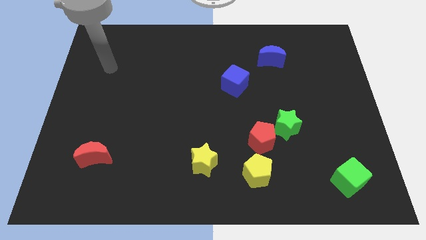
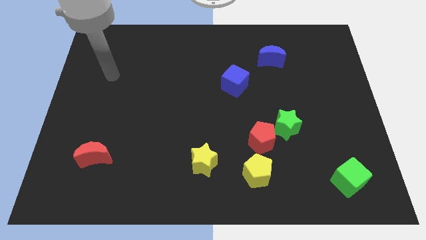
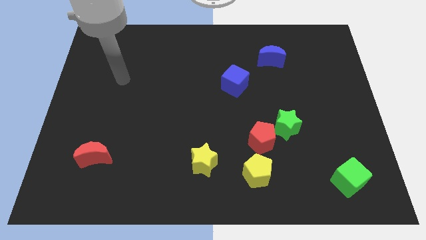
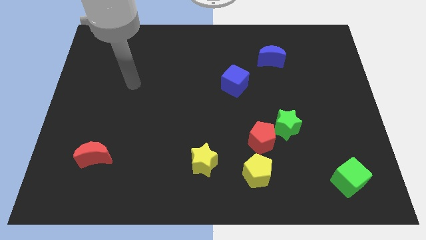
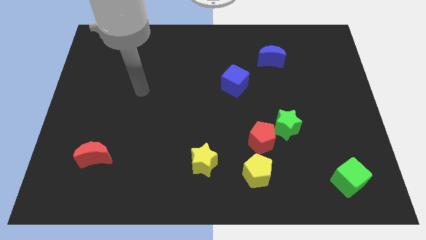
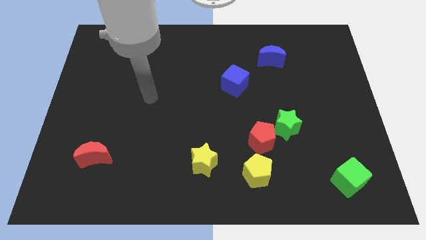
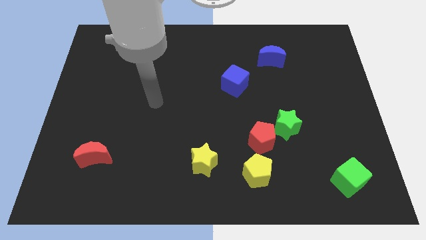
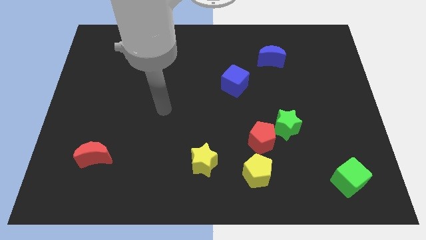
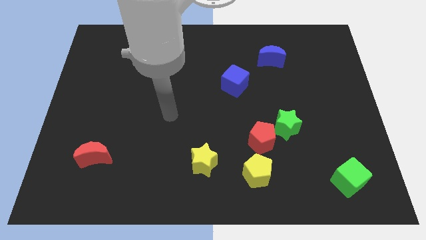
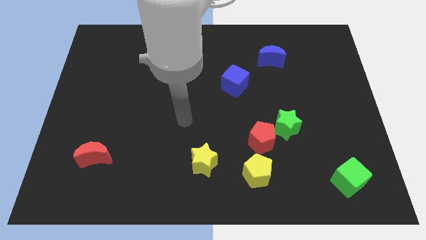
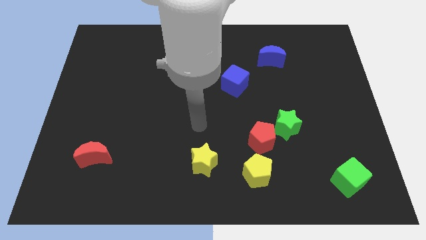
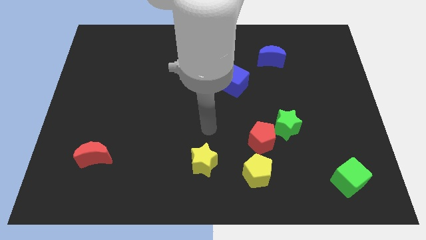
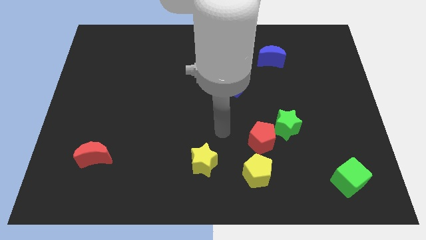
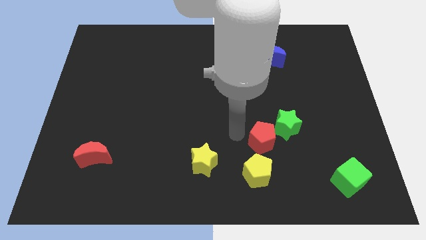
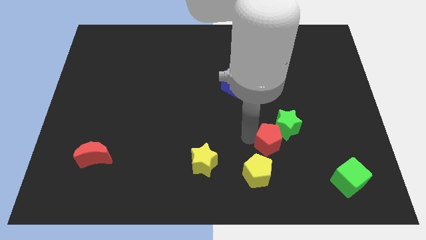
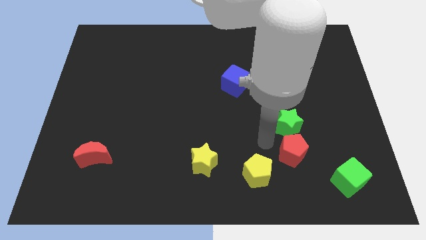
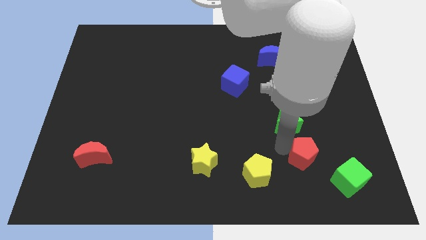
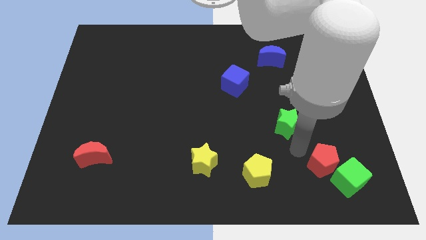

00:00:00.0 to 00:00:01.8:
pull the green star apart from the red pentagon

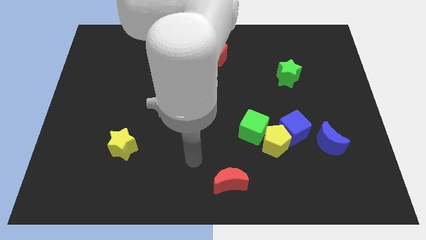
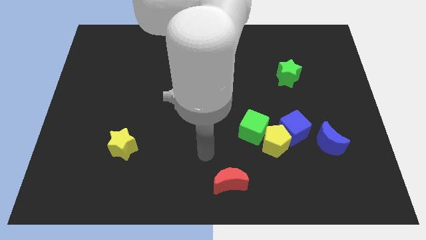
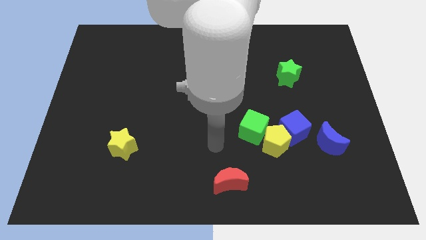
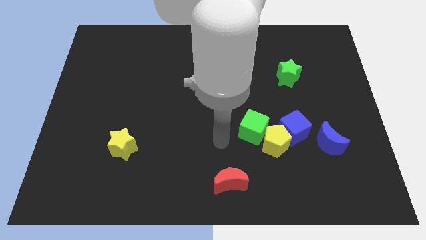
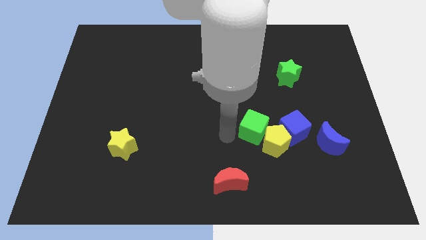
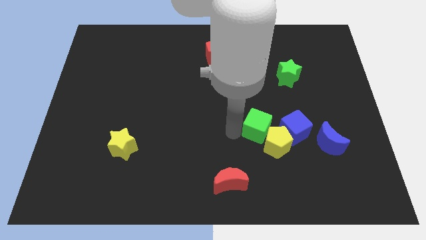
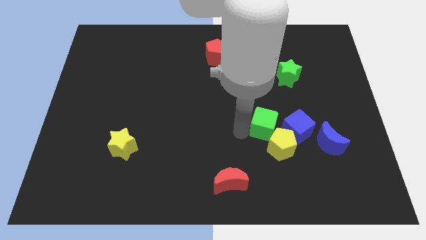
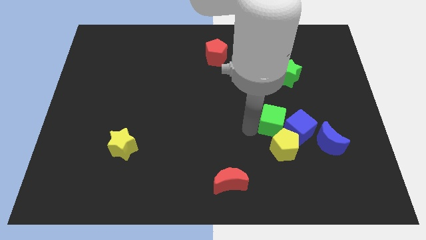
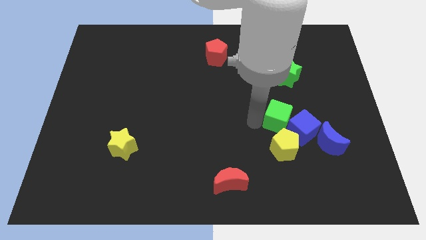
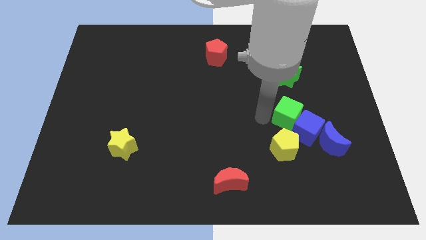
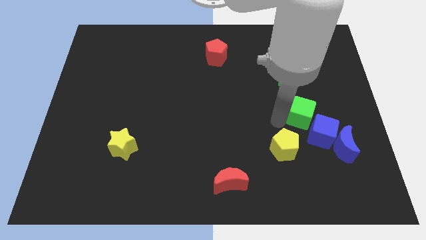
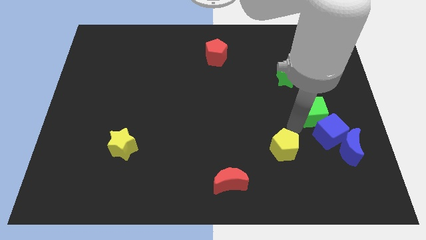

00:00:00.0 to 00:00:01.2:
move the yellow pentagon away from the blue cube and green cube

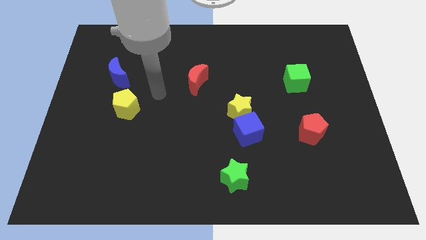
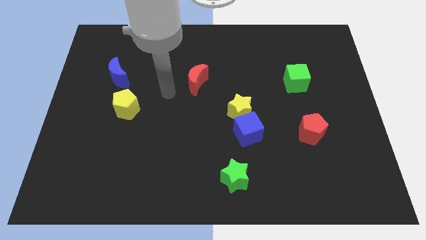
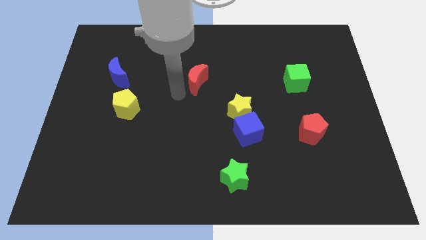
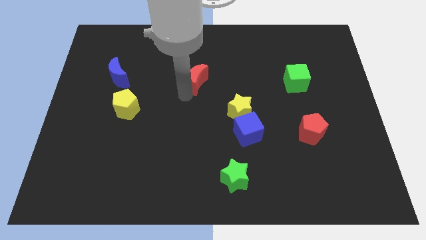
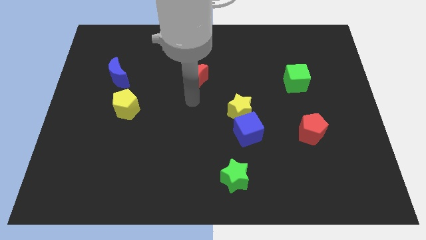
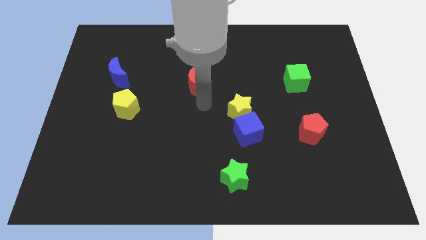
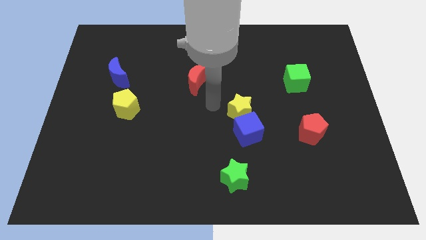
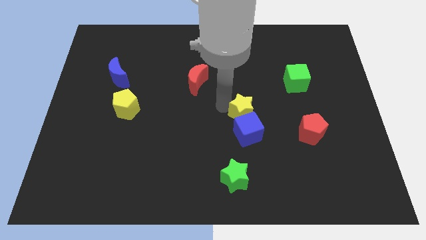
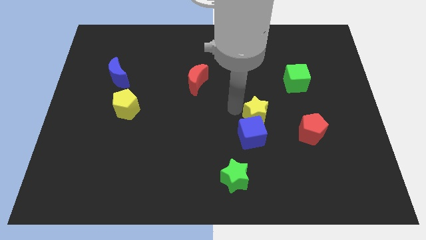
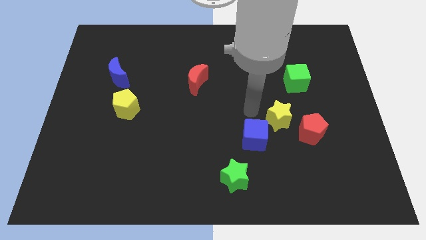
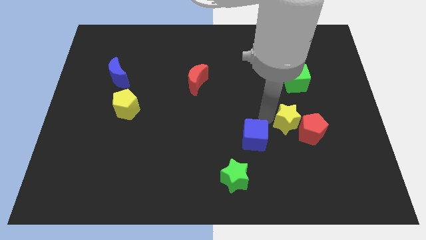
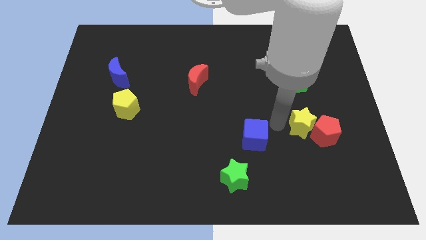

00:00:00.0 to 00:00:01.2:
pull the blue cube apart from the yellow star

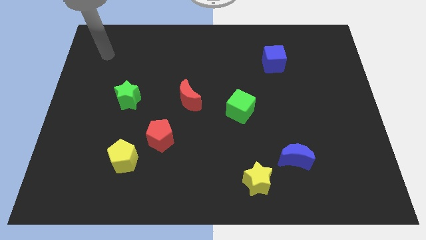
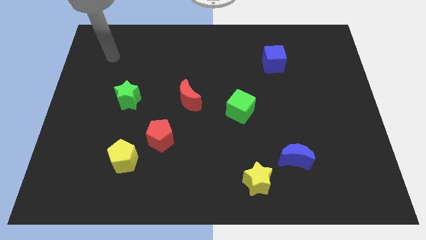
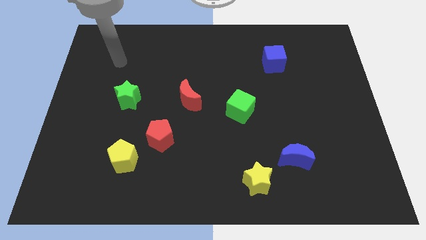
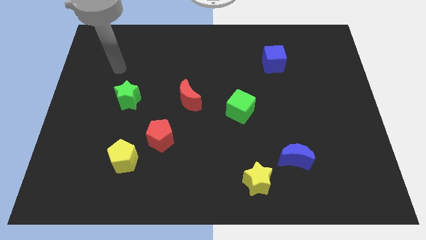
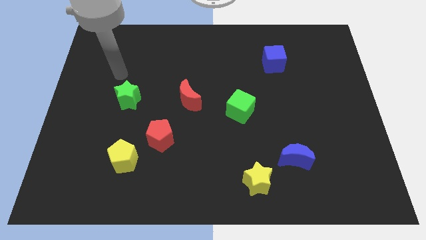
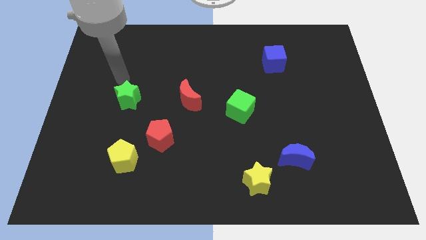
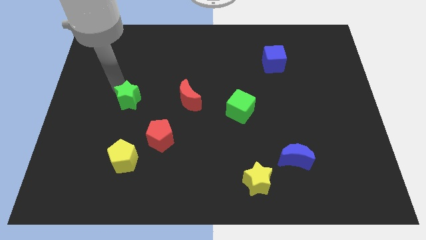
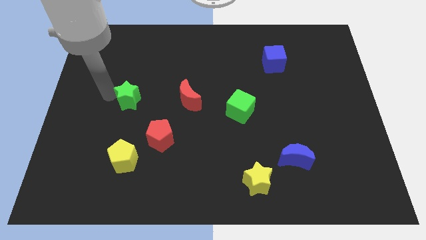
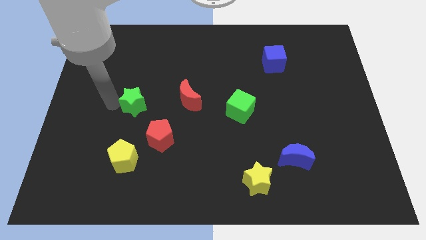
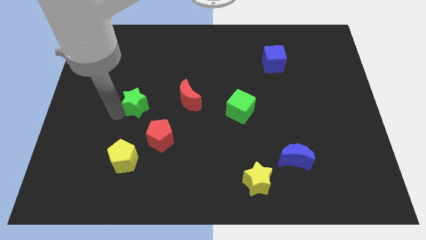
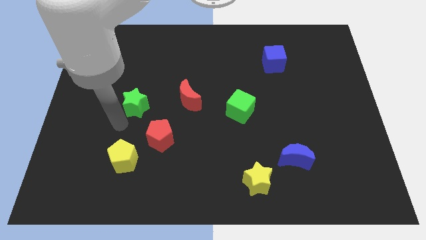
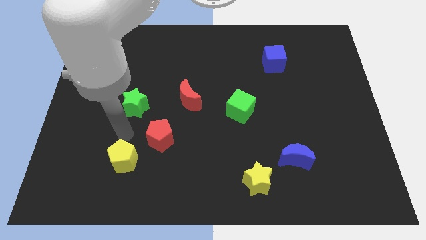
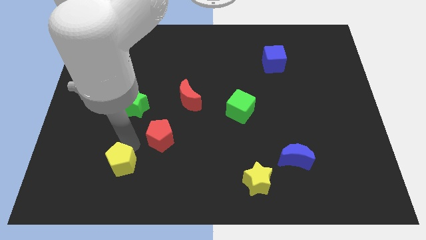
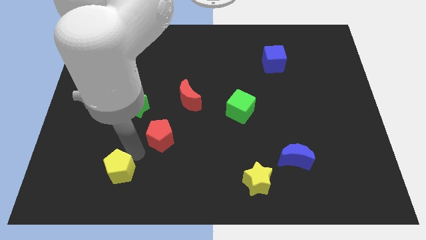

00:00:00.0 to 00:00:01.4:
pull the red pentagon apart from the yellow pentagon

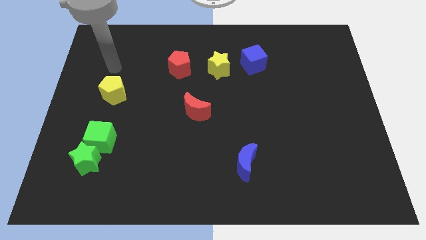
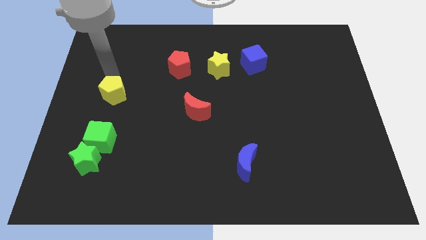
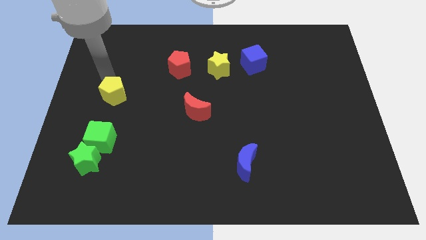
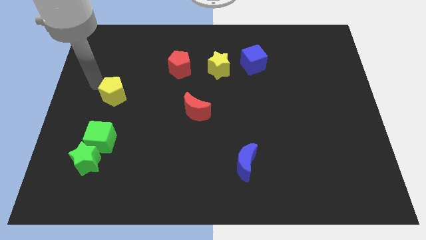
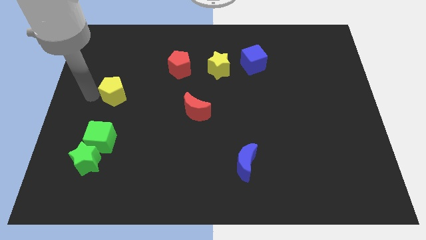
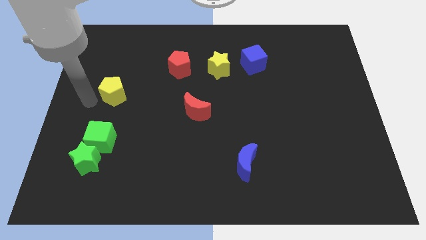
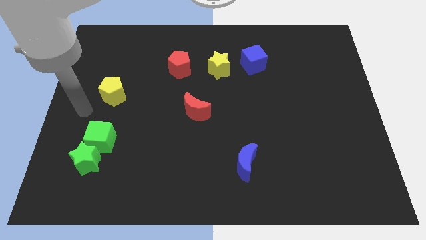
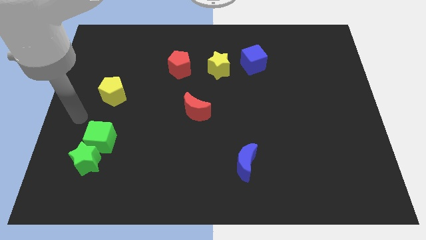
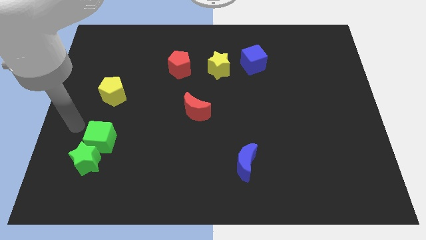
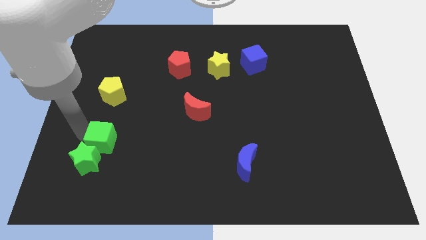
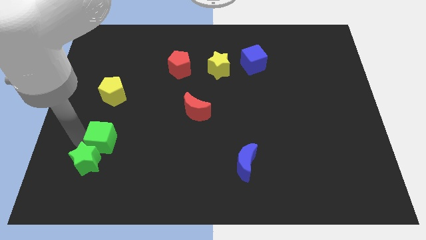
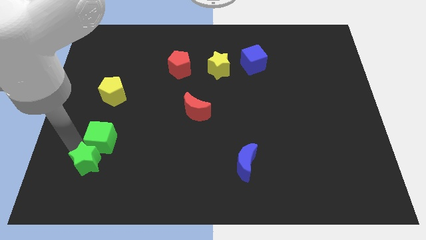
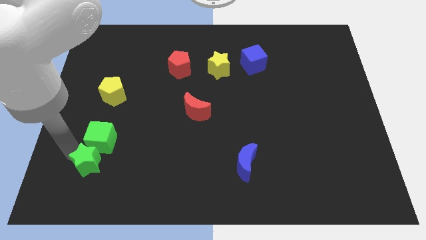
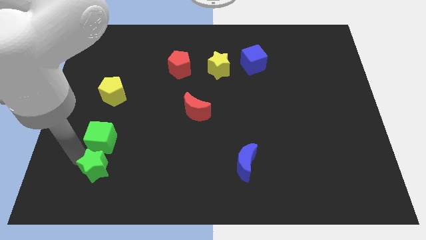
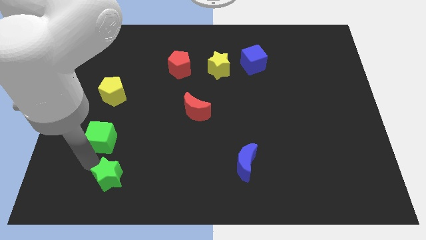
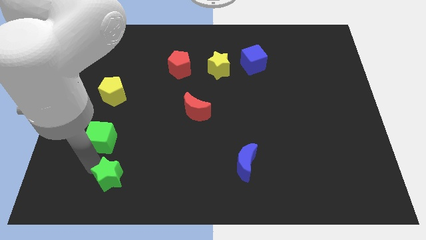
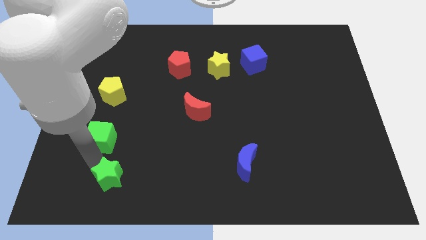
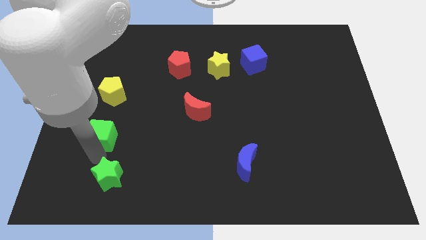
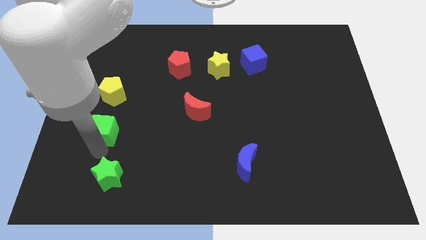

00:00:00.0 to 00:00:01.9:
move the green cube away from the green star

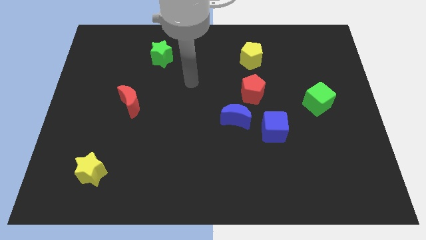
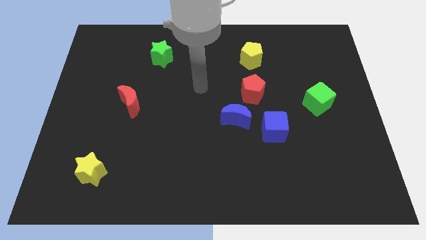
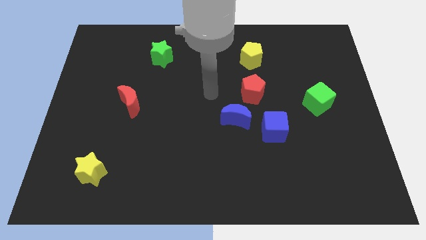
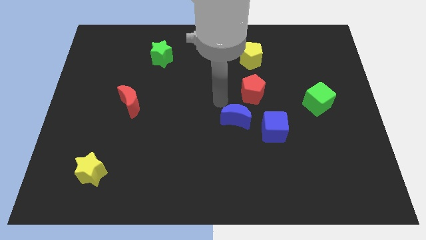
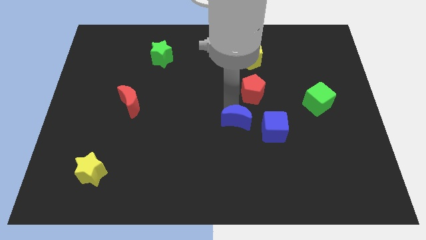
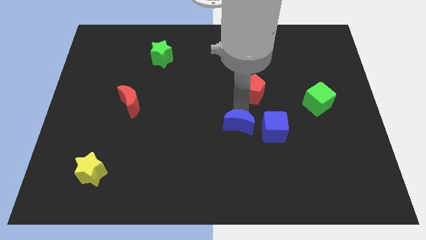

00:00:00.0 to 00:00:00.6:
pull the red pentagon apart from the blue moon

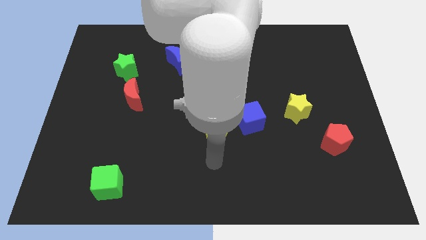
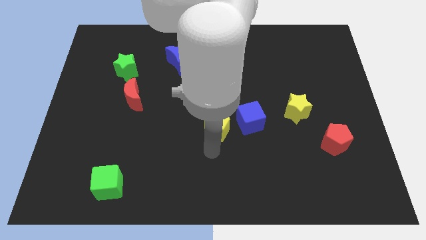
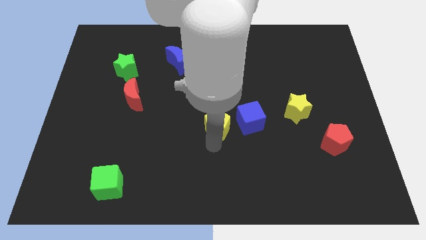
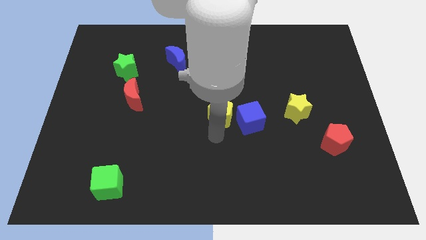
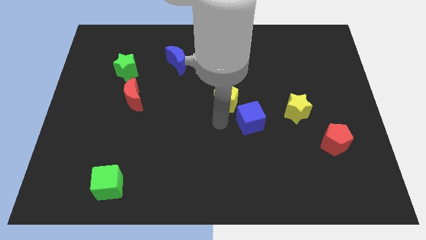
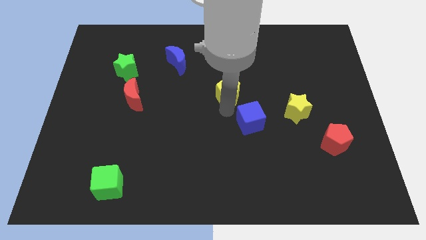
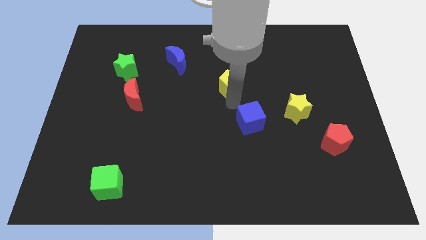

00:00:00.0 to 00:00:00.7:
separate the blue cube from the yellow pentagon

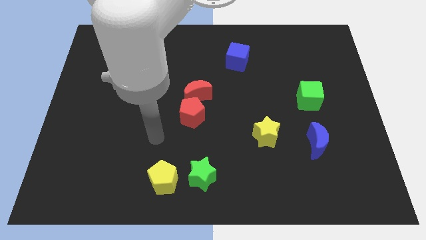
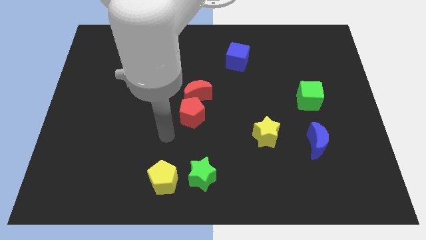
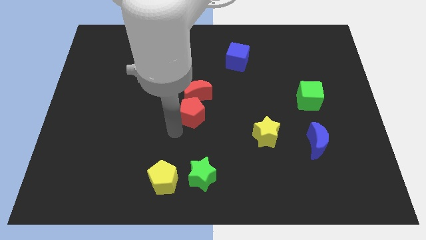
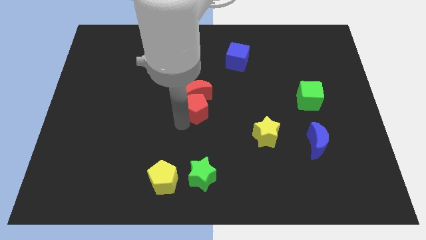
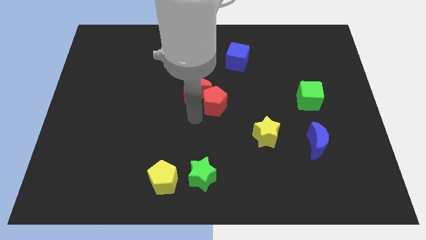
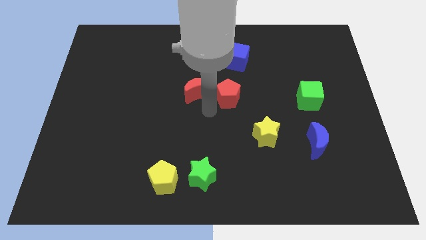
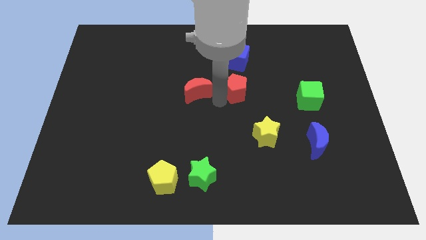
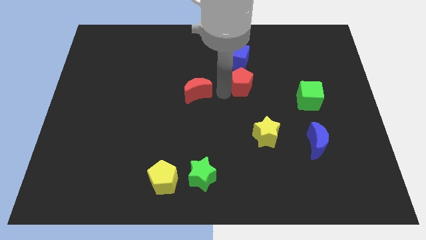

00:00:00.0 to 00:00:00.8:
move the red moon away from the red pentagon
